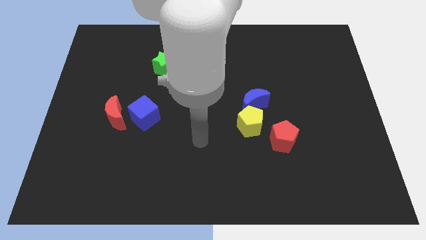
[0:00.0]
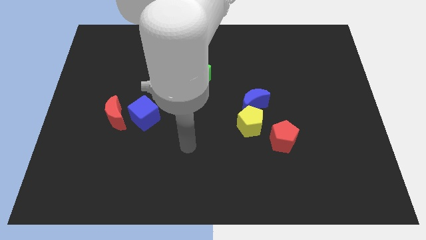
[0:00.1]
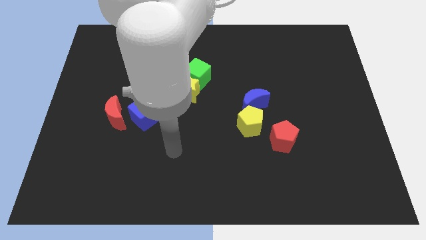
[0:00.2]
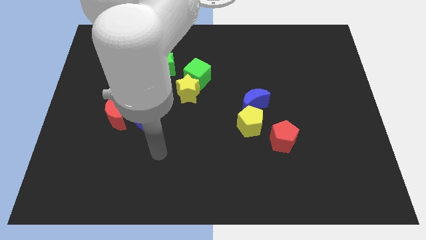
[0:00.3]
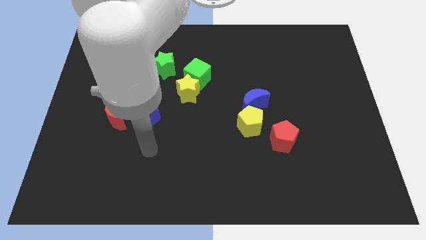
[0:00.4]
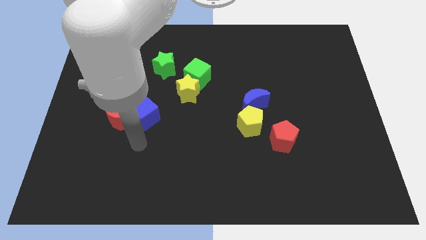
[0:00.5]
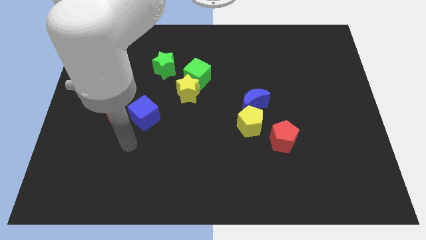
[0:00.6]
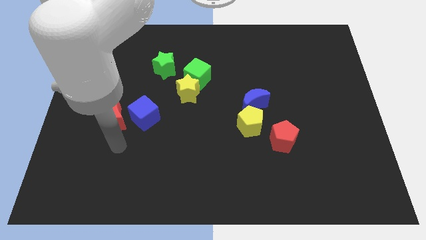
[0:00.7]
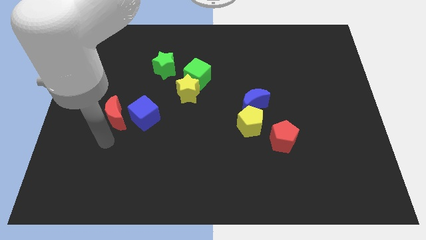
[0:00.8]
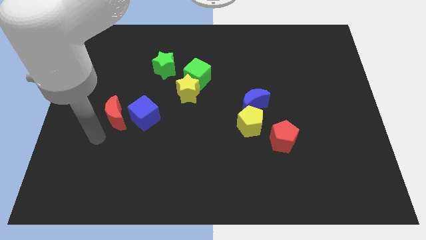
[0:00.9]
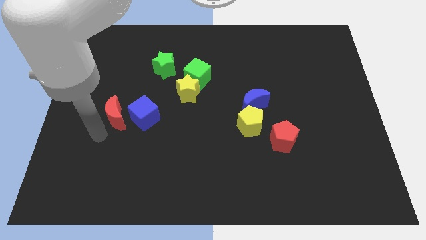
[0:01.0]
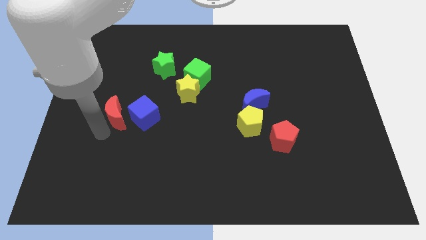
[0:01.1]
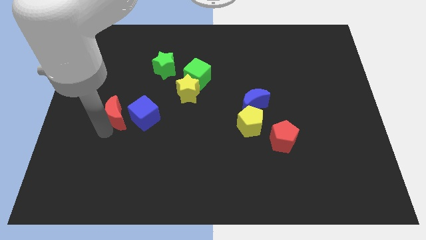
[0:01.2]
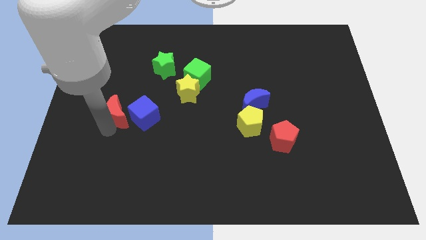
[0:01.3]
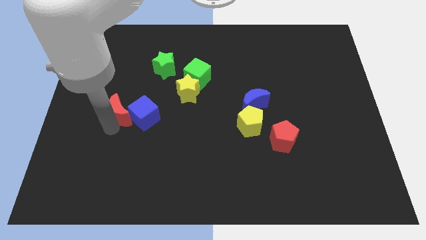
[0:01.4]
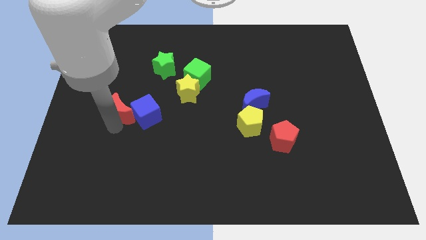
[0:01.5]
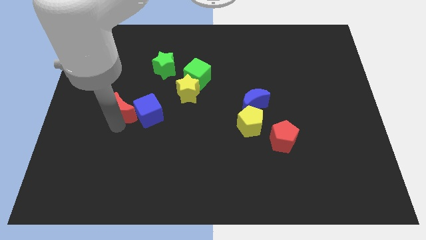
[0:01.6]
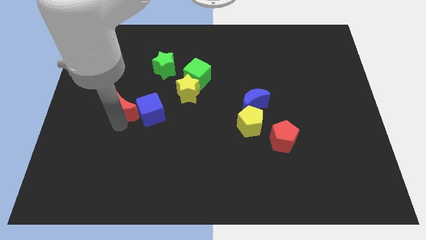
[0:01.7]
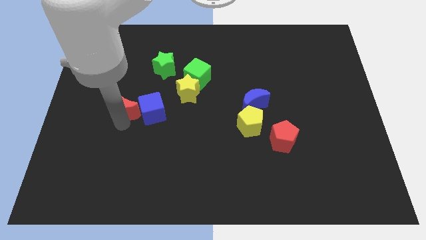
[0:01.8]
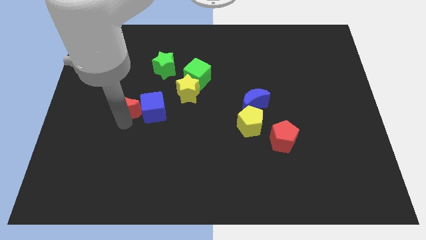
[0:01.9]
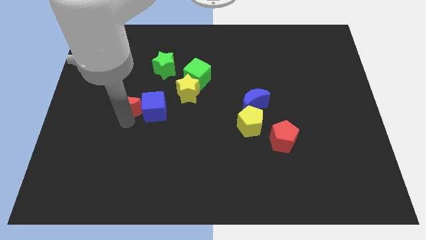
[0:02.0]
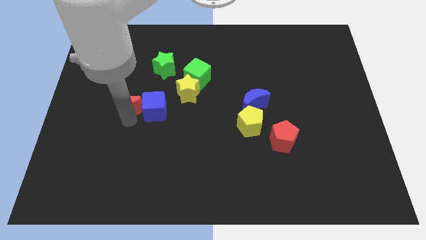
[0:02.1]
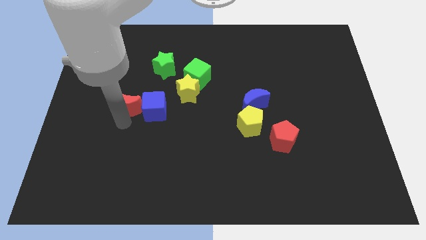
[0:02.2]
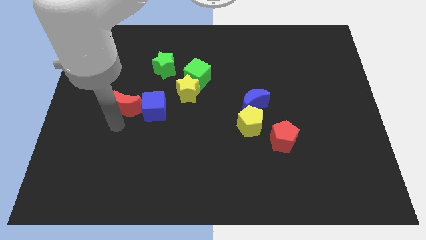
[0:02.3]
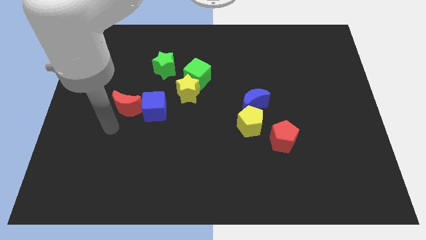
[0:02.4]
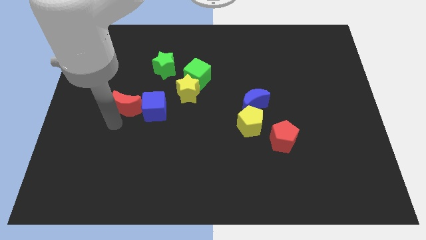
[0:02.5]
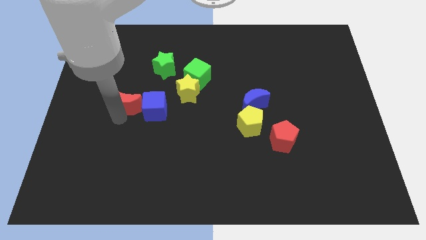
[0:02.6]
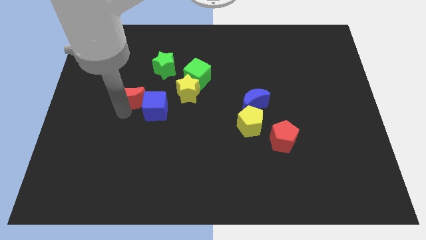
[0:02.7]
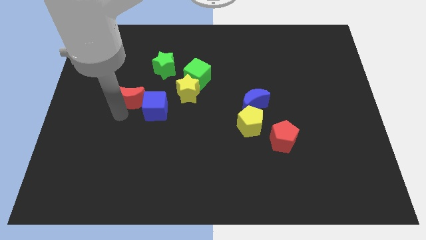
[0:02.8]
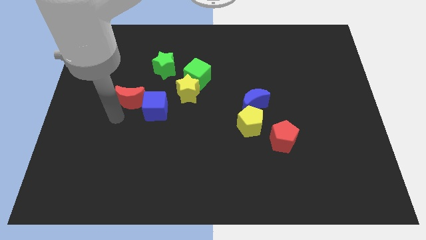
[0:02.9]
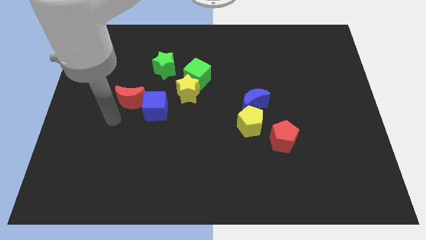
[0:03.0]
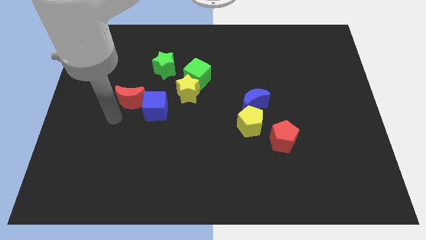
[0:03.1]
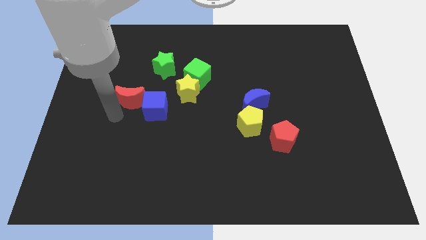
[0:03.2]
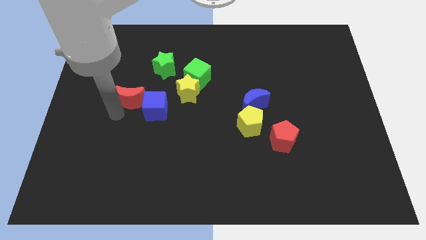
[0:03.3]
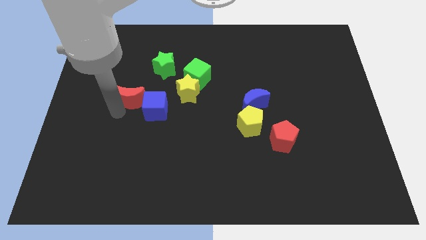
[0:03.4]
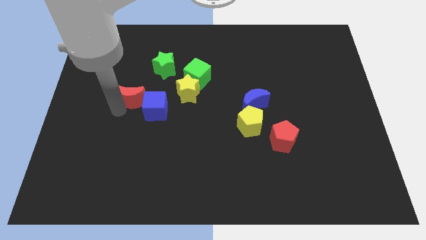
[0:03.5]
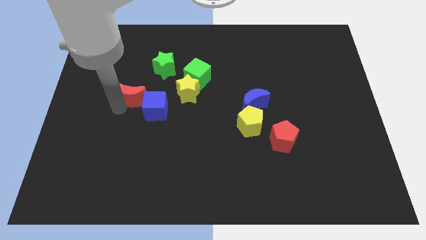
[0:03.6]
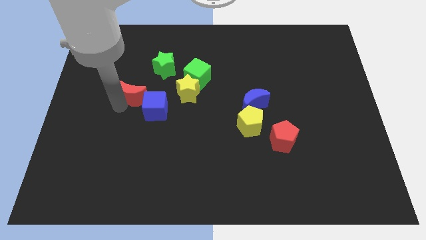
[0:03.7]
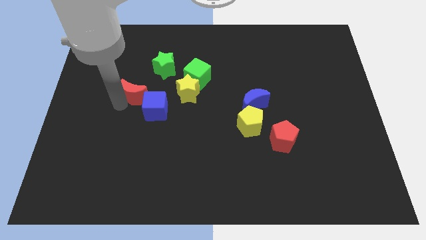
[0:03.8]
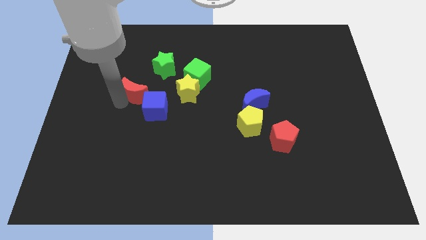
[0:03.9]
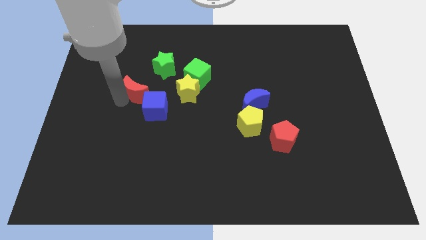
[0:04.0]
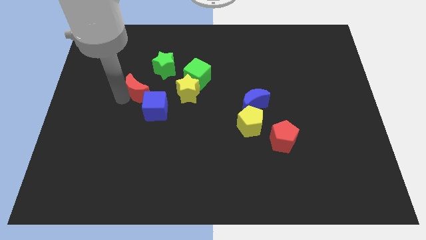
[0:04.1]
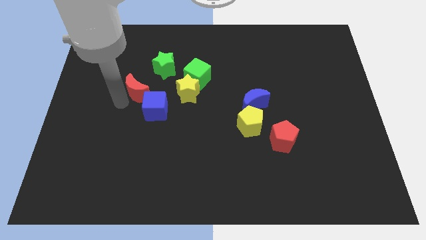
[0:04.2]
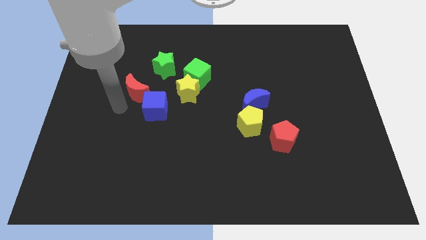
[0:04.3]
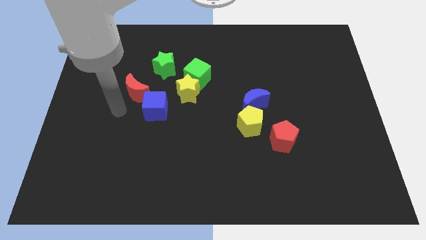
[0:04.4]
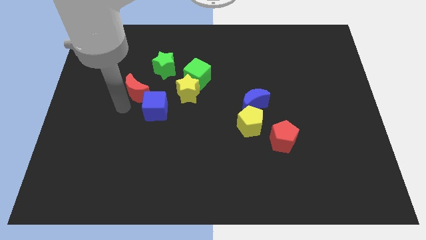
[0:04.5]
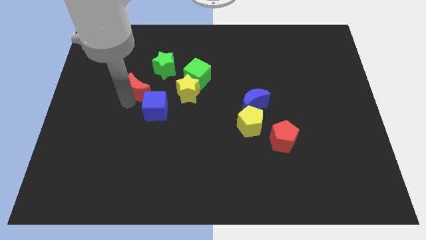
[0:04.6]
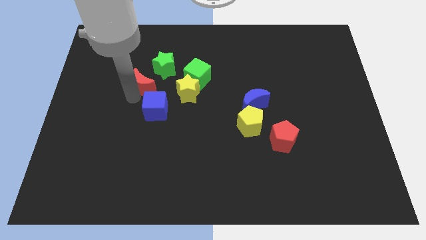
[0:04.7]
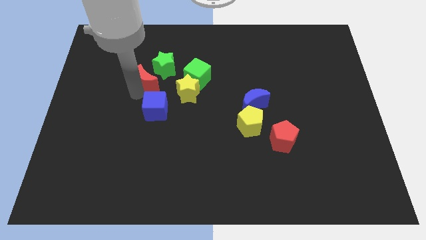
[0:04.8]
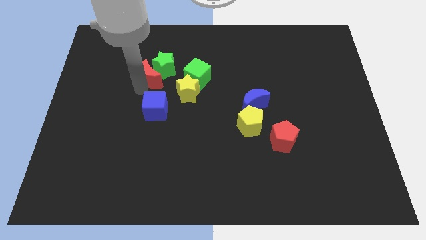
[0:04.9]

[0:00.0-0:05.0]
push the red moon towards the green star

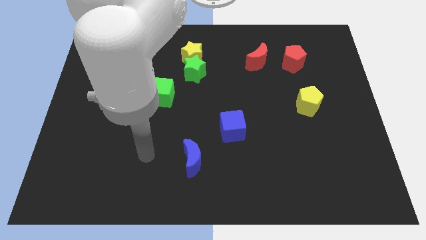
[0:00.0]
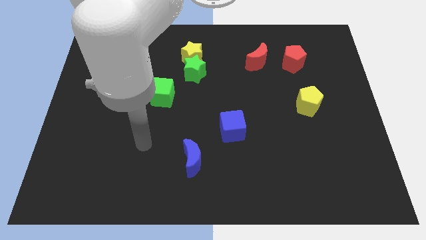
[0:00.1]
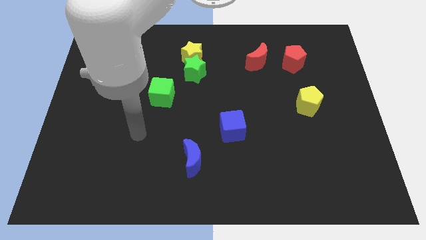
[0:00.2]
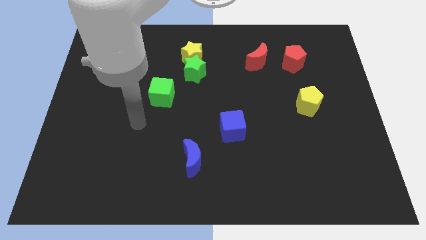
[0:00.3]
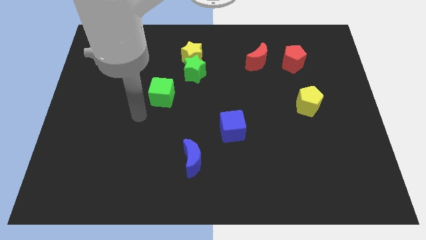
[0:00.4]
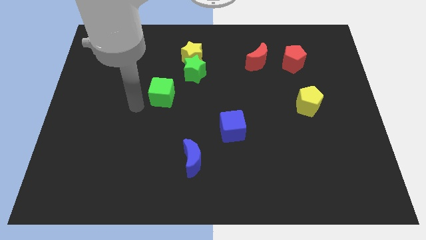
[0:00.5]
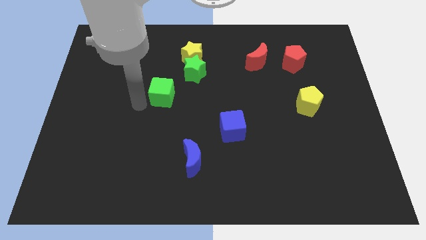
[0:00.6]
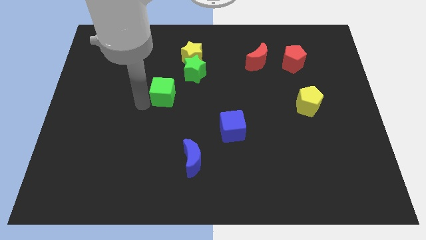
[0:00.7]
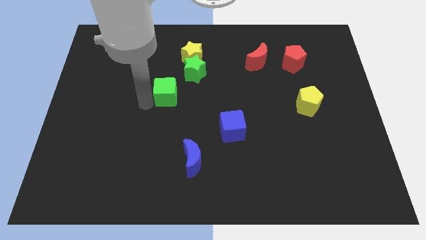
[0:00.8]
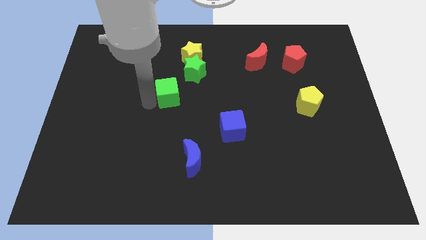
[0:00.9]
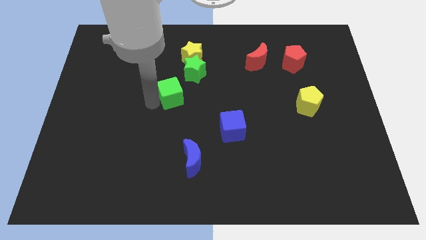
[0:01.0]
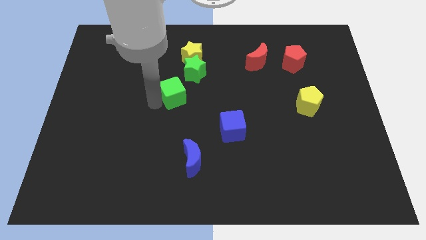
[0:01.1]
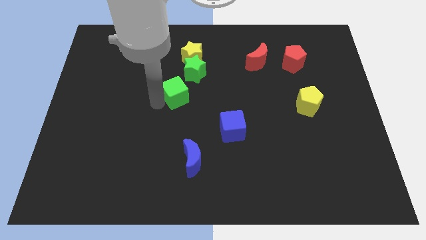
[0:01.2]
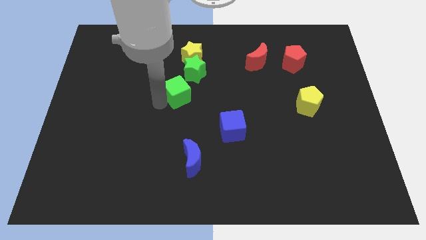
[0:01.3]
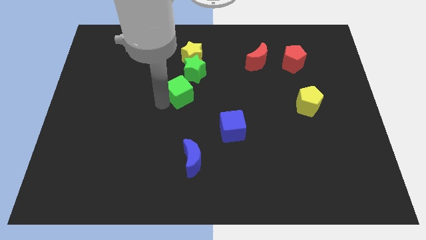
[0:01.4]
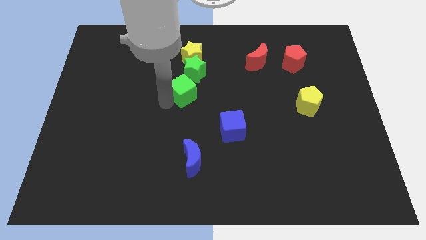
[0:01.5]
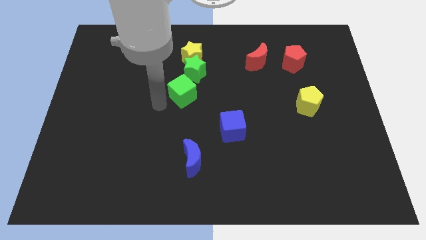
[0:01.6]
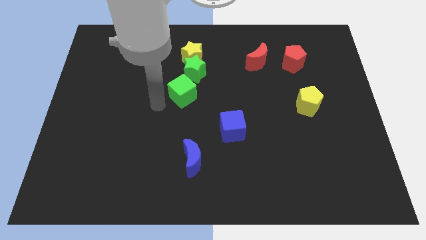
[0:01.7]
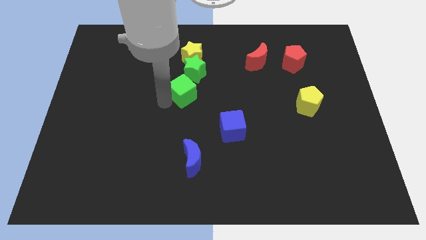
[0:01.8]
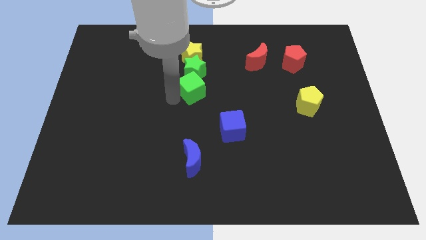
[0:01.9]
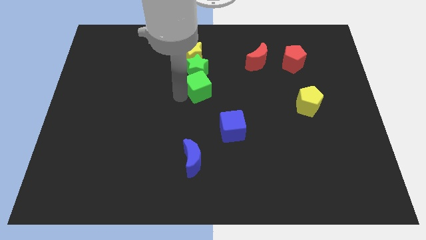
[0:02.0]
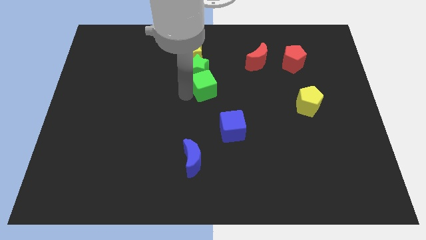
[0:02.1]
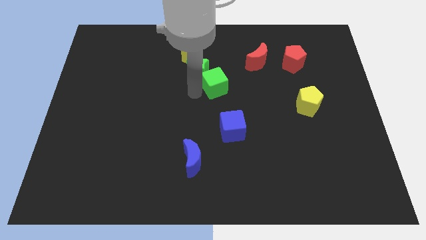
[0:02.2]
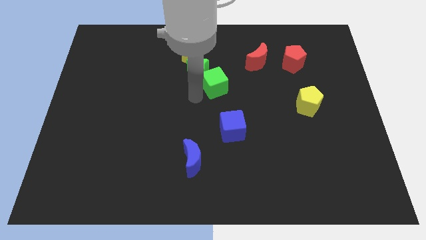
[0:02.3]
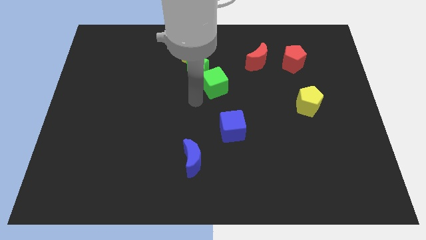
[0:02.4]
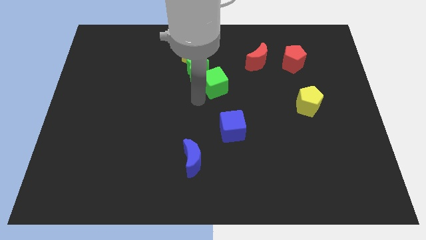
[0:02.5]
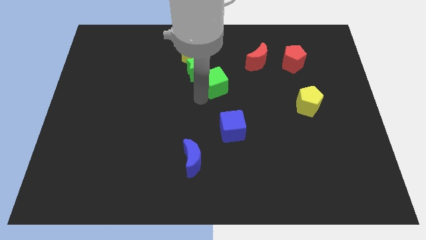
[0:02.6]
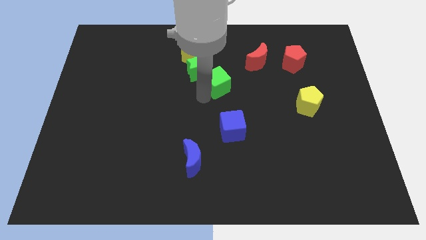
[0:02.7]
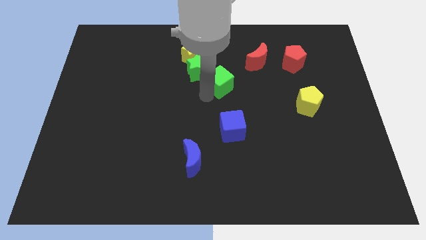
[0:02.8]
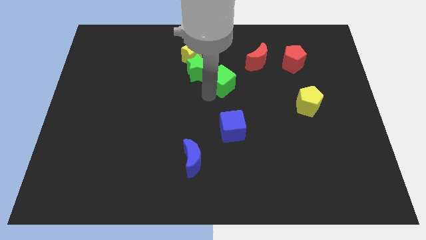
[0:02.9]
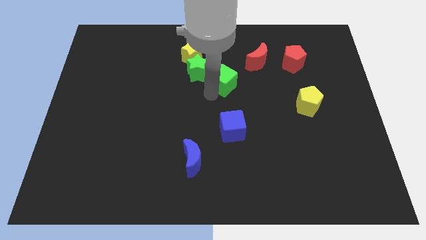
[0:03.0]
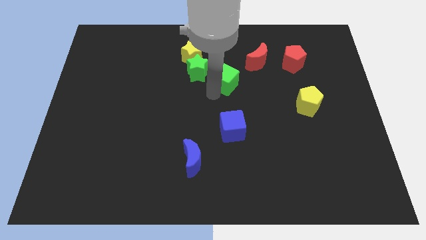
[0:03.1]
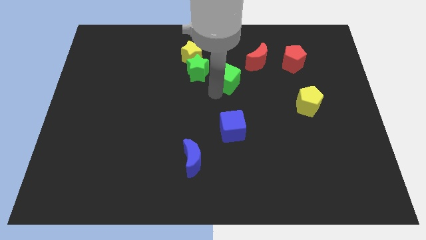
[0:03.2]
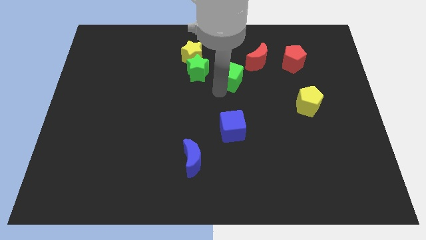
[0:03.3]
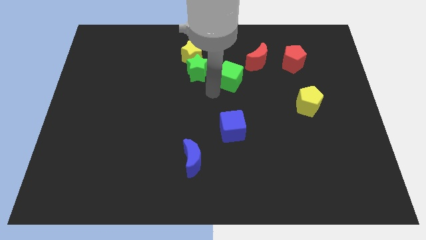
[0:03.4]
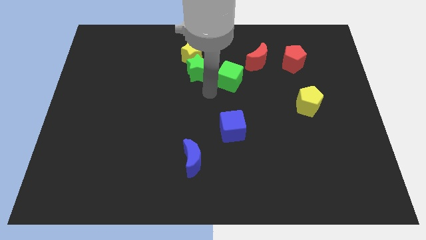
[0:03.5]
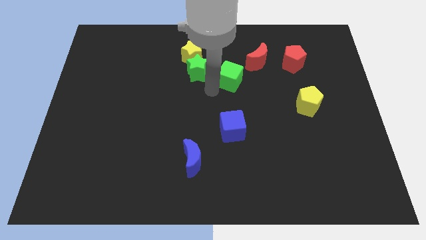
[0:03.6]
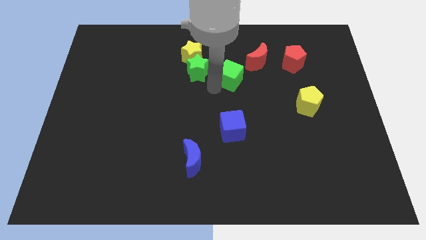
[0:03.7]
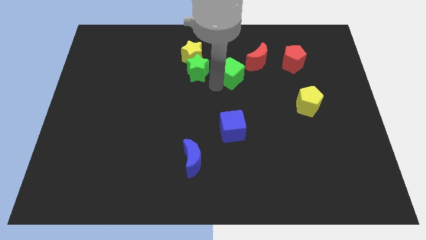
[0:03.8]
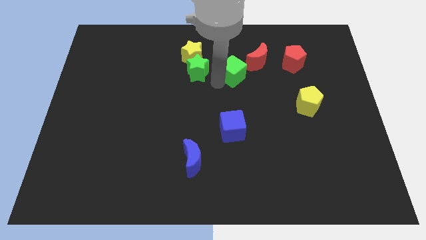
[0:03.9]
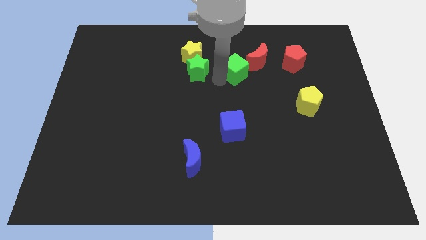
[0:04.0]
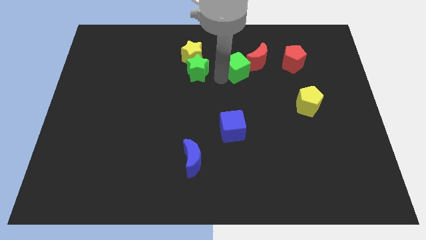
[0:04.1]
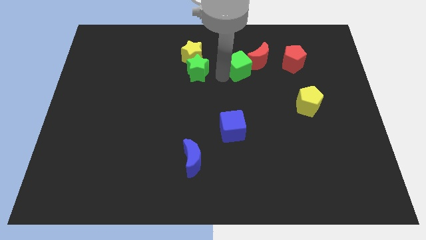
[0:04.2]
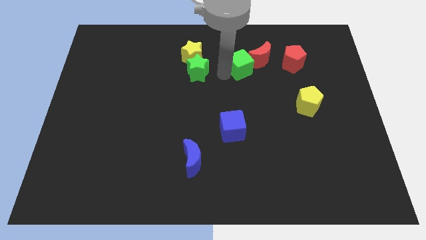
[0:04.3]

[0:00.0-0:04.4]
put the green cube towards the red moon
